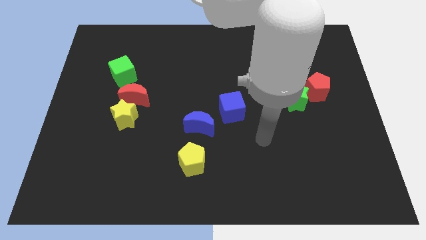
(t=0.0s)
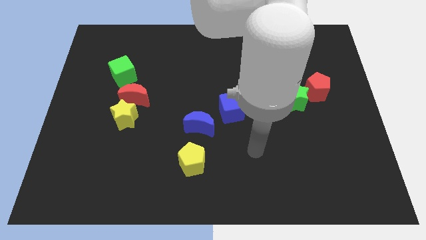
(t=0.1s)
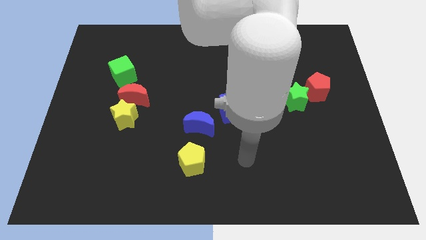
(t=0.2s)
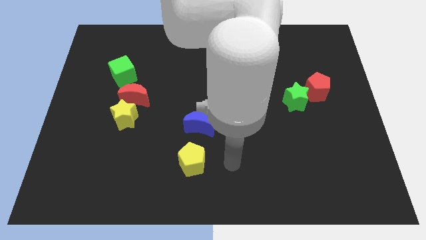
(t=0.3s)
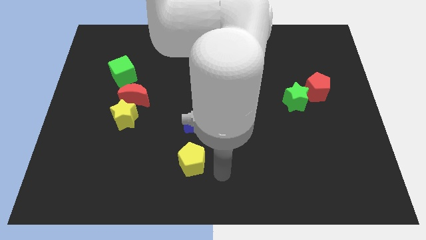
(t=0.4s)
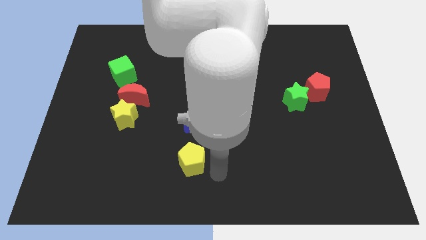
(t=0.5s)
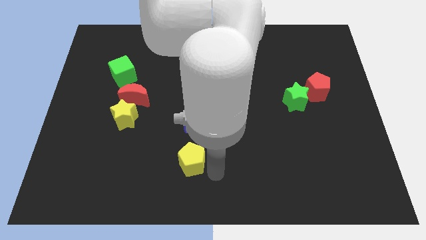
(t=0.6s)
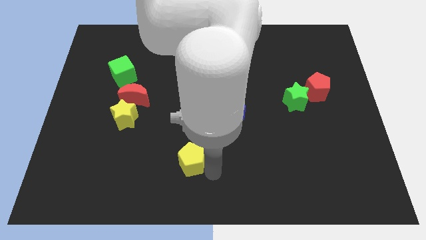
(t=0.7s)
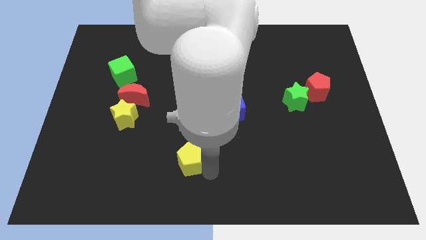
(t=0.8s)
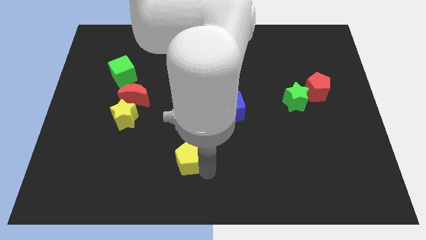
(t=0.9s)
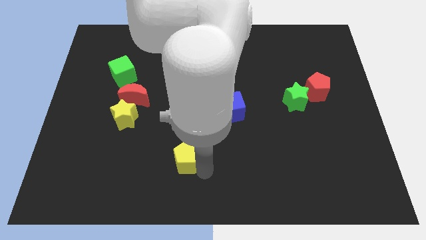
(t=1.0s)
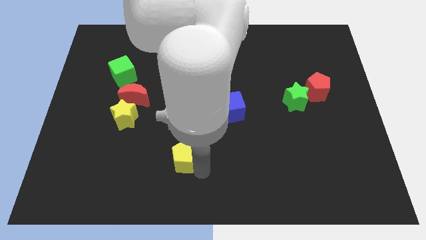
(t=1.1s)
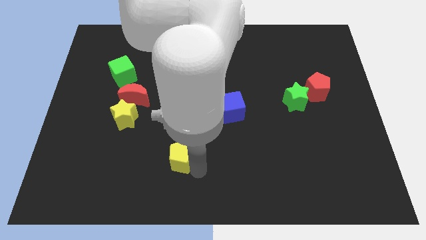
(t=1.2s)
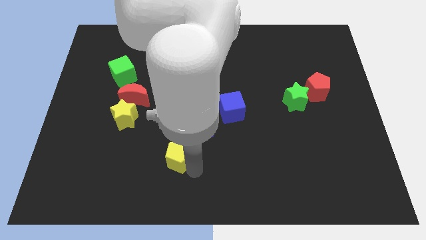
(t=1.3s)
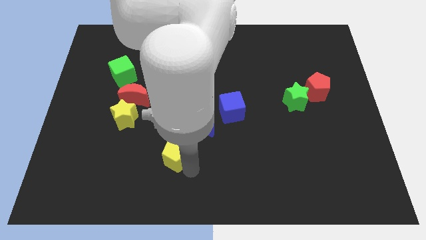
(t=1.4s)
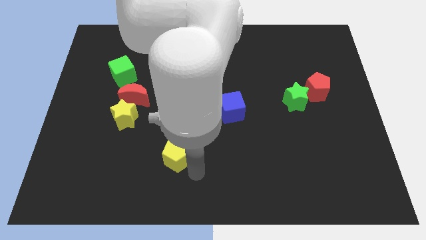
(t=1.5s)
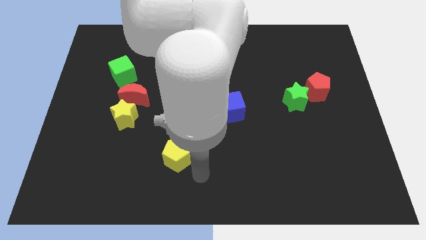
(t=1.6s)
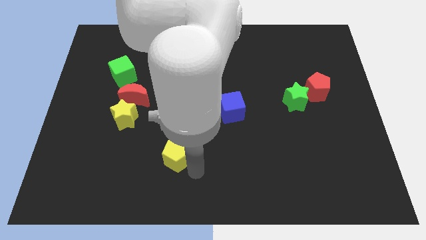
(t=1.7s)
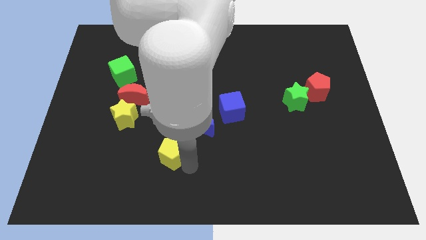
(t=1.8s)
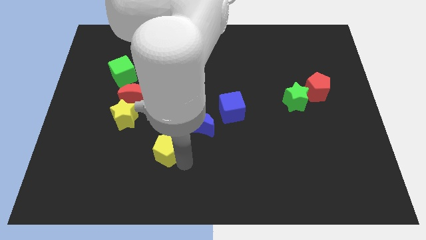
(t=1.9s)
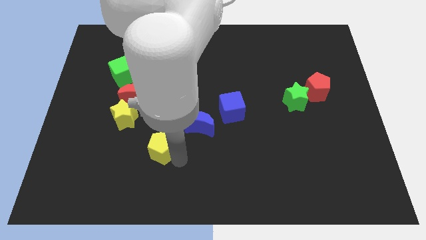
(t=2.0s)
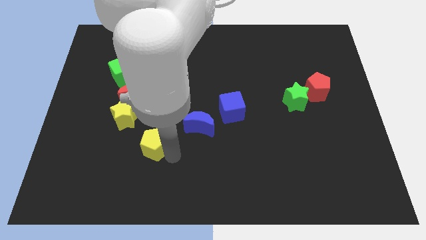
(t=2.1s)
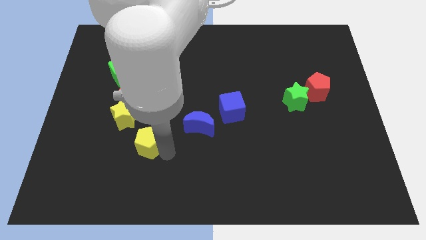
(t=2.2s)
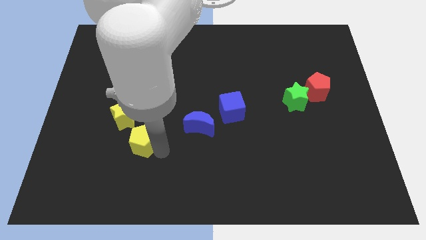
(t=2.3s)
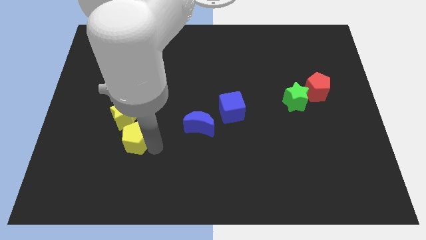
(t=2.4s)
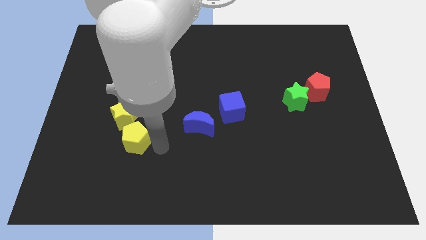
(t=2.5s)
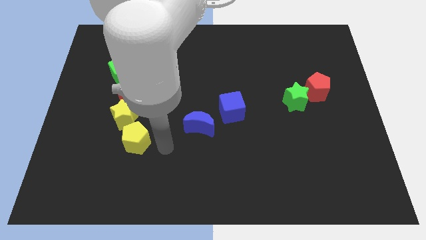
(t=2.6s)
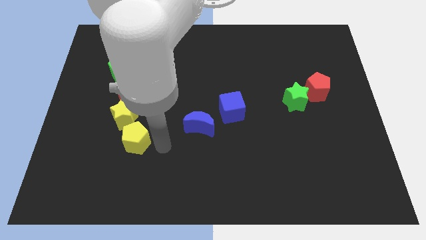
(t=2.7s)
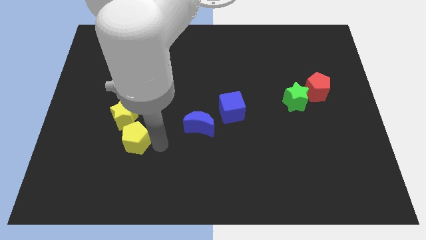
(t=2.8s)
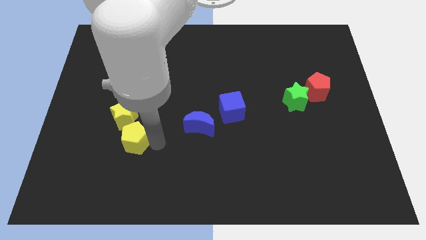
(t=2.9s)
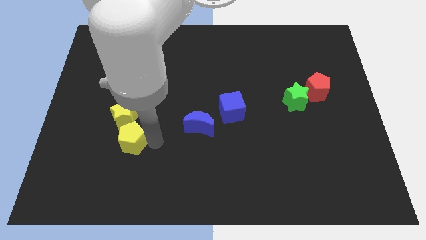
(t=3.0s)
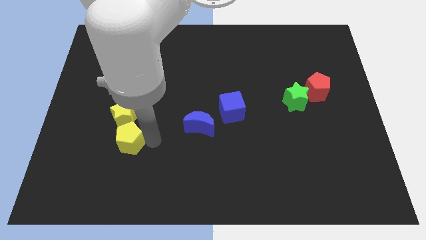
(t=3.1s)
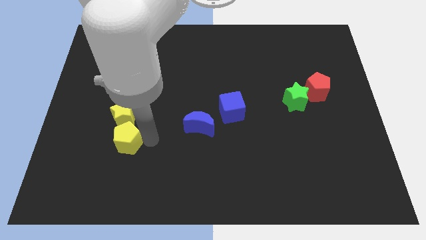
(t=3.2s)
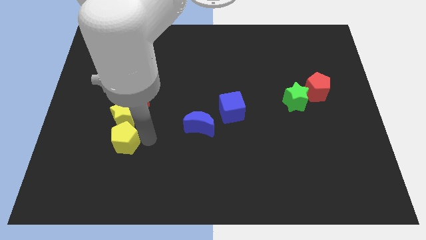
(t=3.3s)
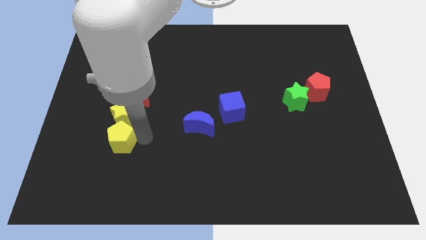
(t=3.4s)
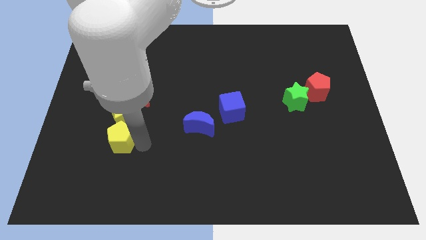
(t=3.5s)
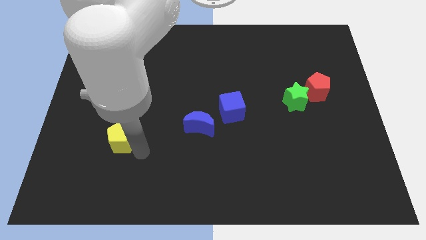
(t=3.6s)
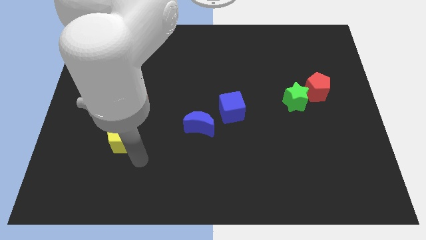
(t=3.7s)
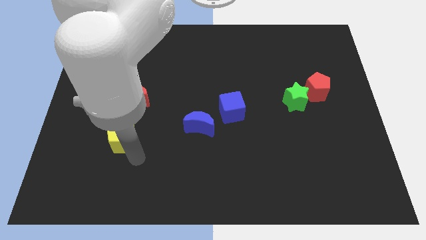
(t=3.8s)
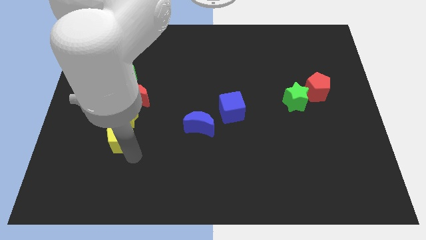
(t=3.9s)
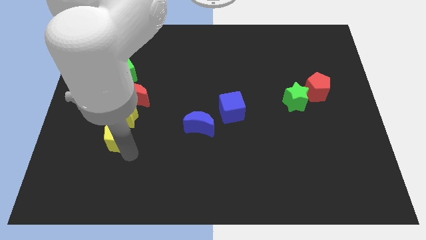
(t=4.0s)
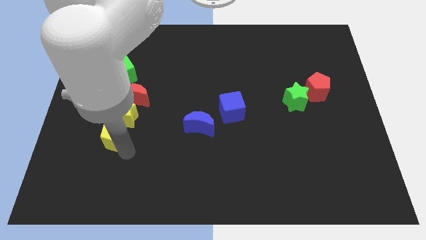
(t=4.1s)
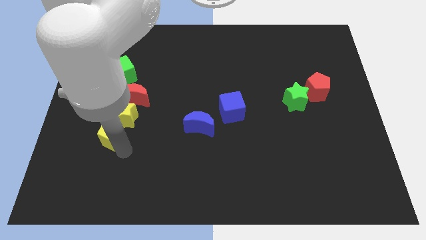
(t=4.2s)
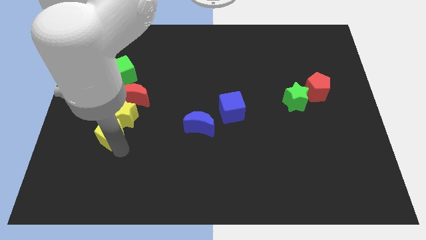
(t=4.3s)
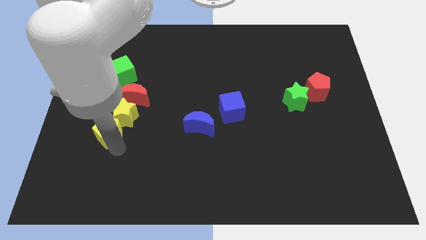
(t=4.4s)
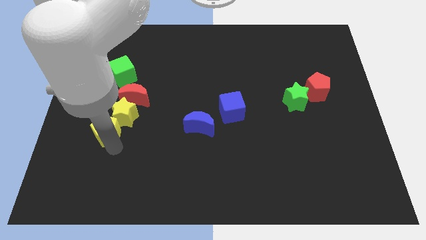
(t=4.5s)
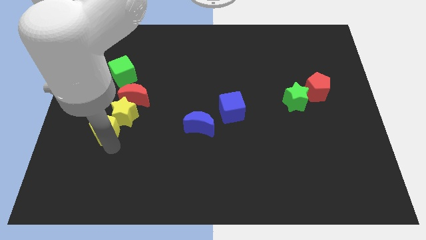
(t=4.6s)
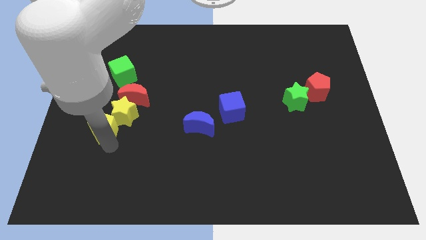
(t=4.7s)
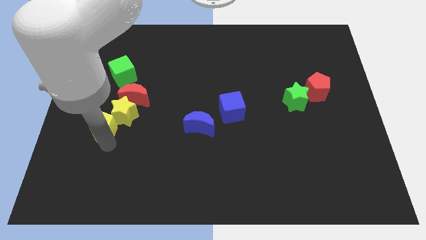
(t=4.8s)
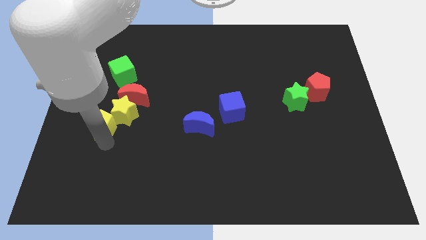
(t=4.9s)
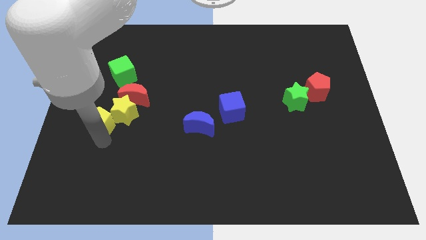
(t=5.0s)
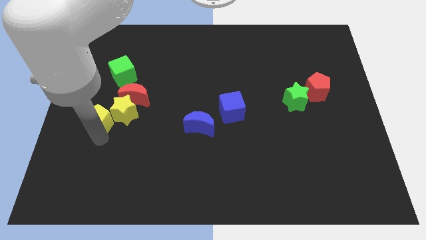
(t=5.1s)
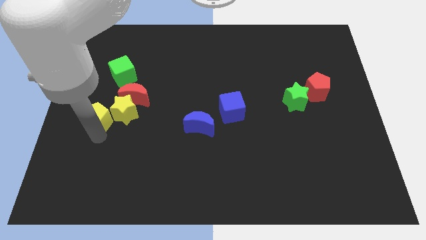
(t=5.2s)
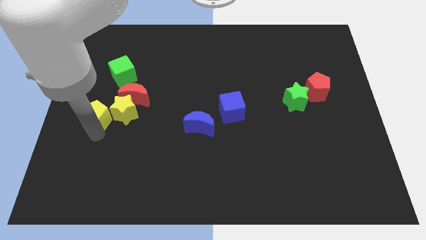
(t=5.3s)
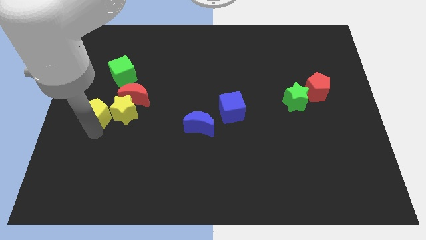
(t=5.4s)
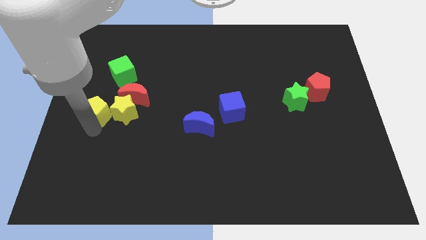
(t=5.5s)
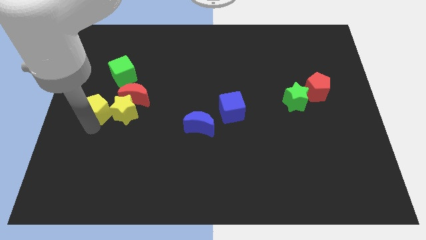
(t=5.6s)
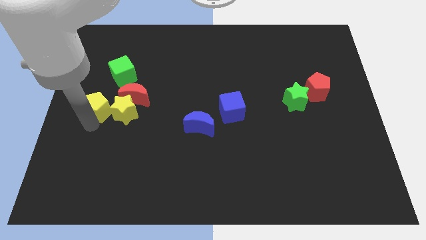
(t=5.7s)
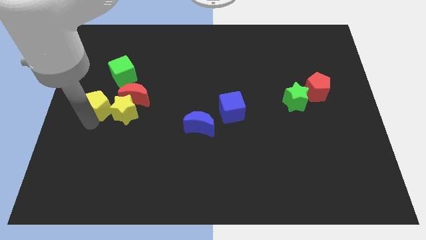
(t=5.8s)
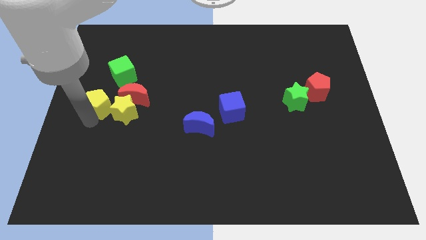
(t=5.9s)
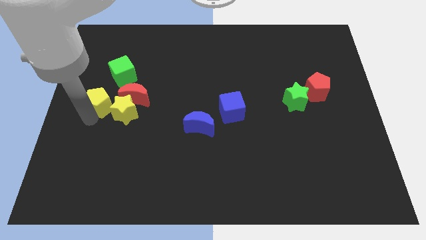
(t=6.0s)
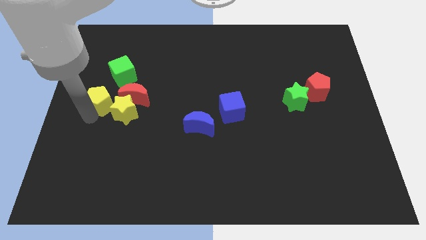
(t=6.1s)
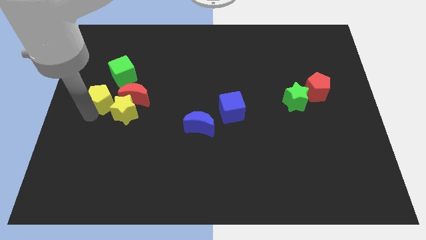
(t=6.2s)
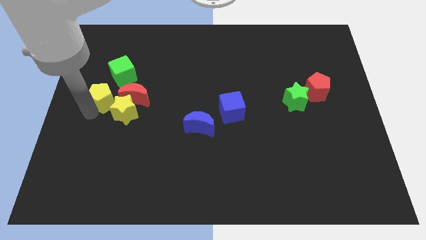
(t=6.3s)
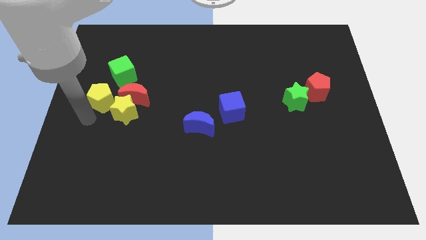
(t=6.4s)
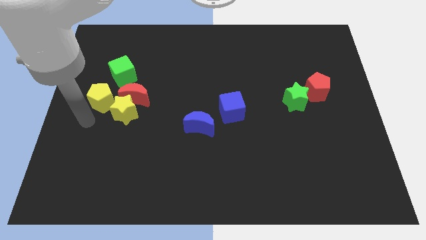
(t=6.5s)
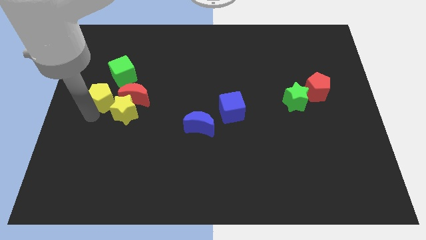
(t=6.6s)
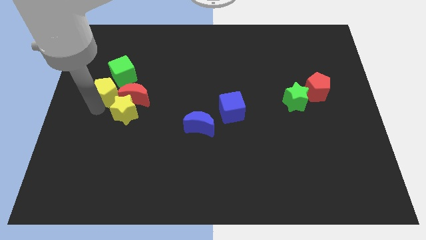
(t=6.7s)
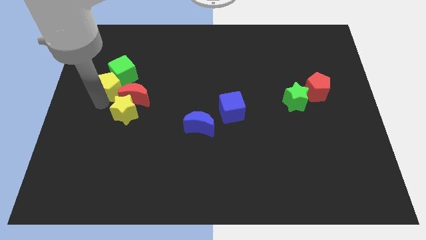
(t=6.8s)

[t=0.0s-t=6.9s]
push the yellow pentagon to the green cube

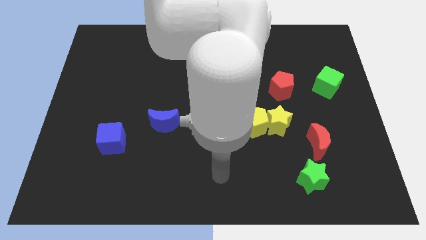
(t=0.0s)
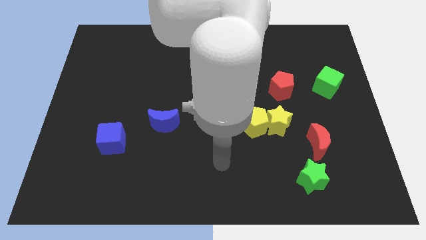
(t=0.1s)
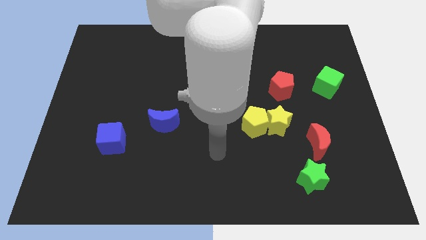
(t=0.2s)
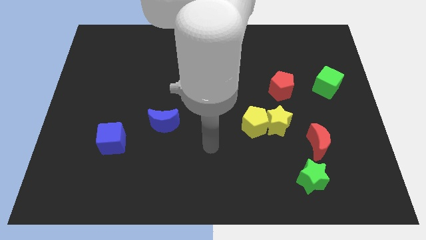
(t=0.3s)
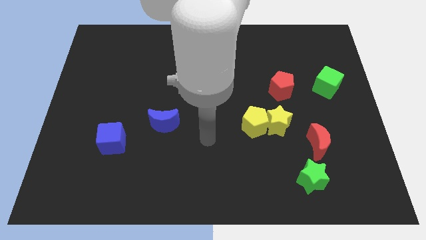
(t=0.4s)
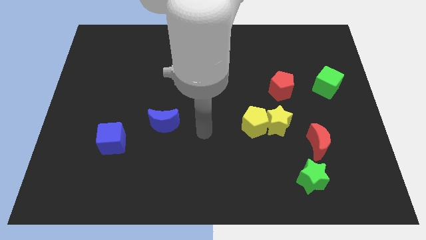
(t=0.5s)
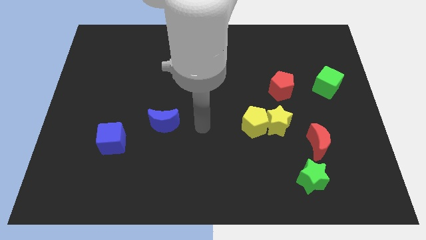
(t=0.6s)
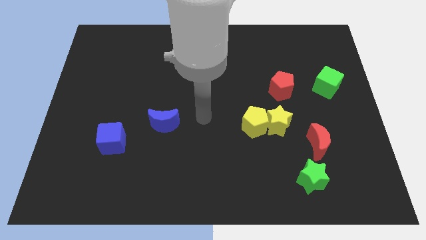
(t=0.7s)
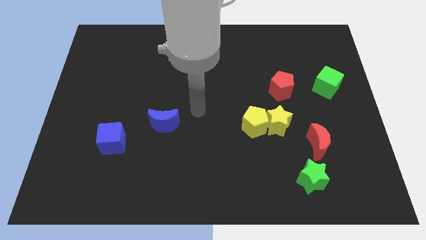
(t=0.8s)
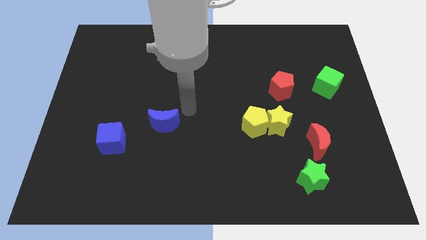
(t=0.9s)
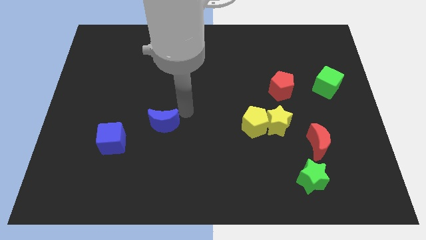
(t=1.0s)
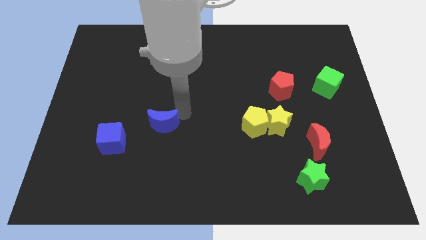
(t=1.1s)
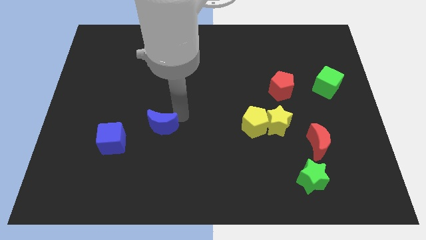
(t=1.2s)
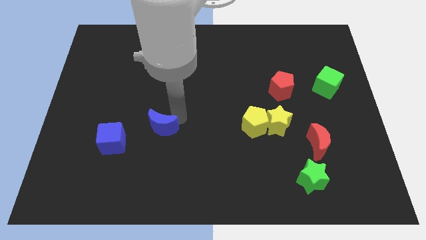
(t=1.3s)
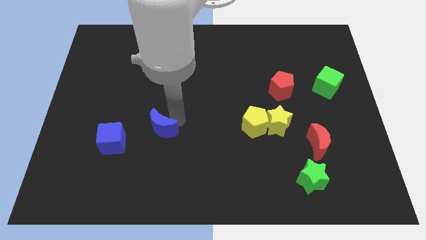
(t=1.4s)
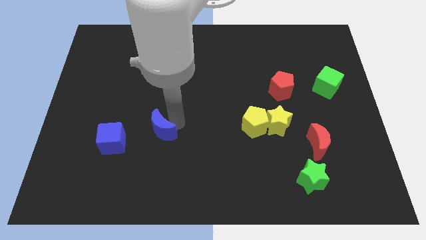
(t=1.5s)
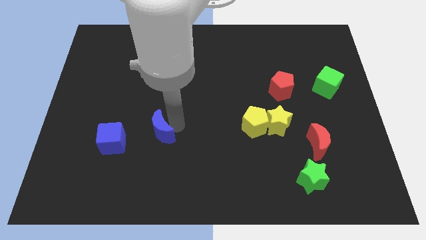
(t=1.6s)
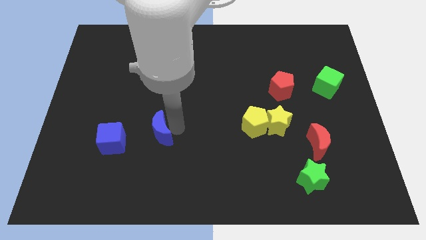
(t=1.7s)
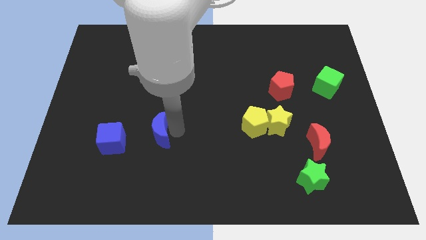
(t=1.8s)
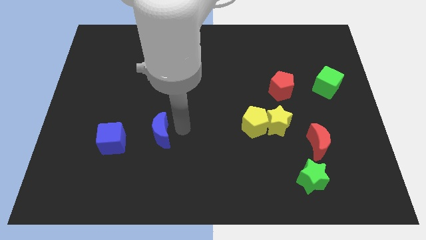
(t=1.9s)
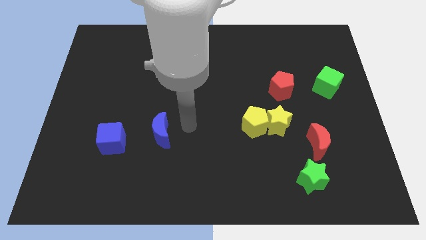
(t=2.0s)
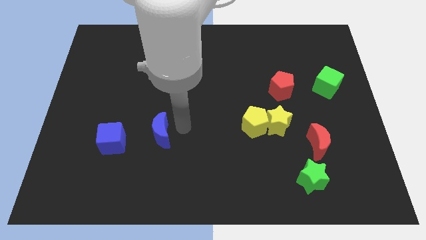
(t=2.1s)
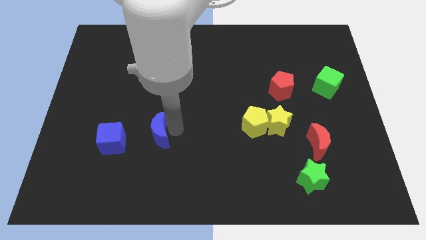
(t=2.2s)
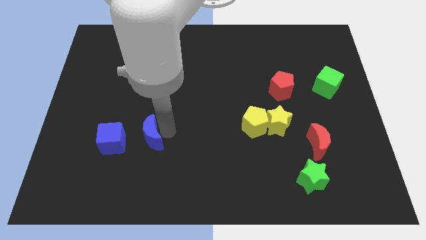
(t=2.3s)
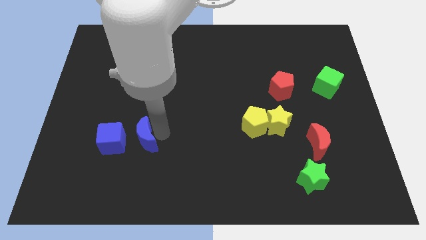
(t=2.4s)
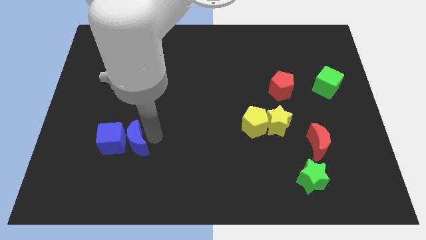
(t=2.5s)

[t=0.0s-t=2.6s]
push the blue moon to the blue cube
